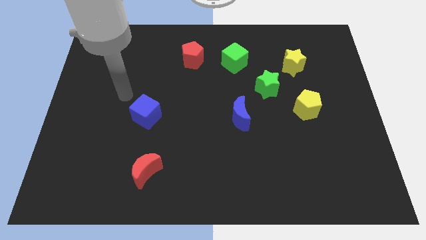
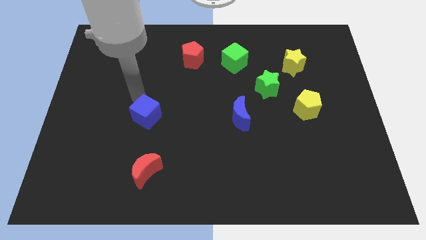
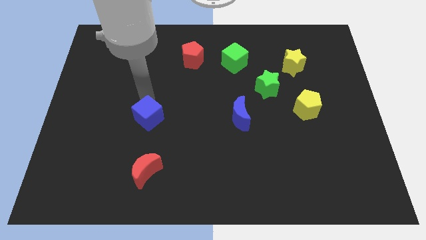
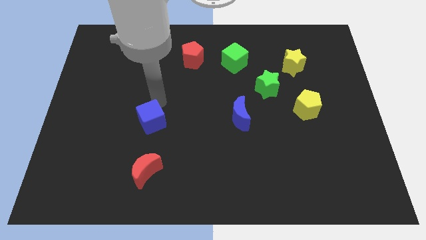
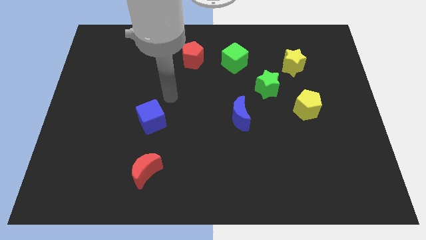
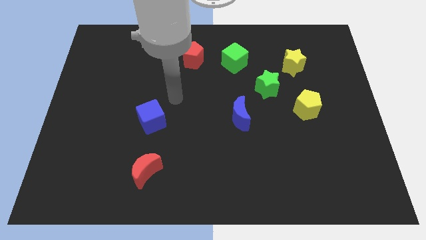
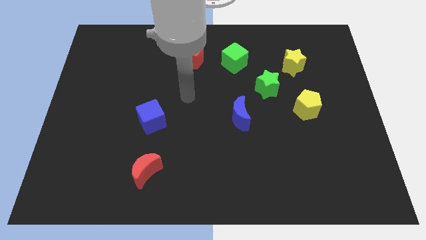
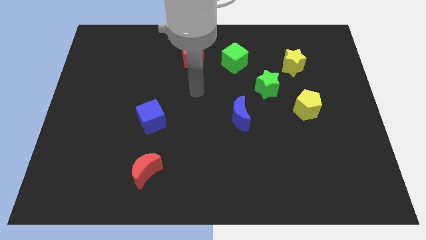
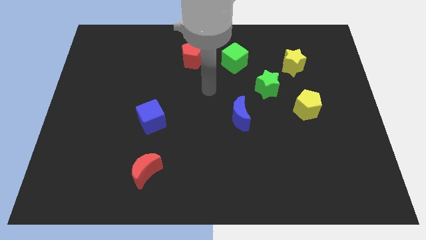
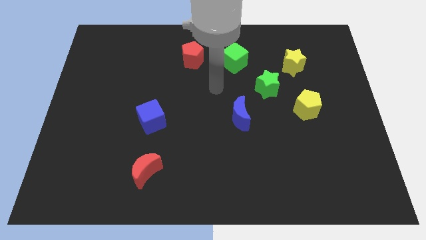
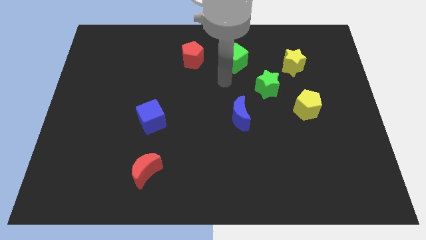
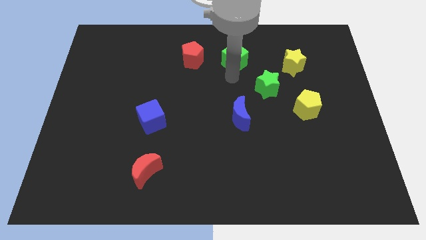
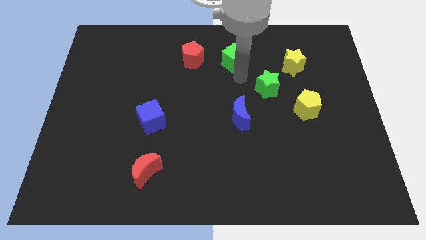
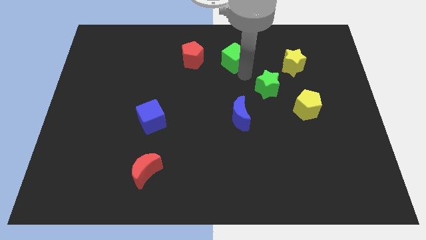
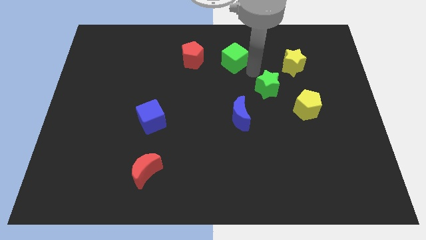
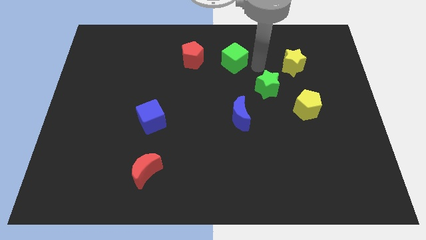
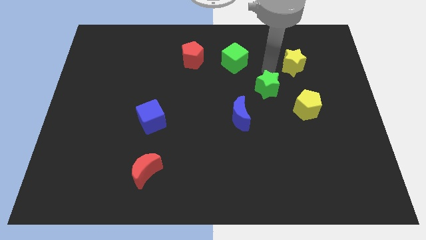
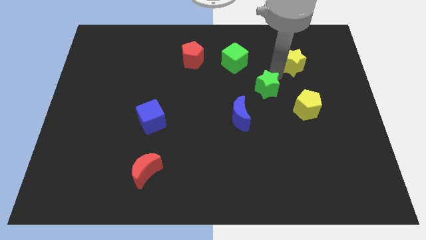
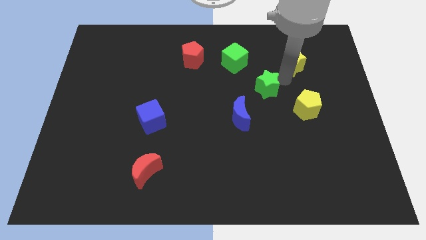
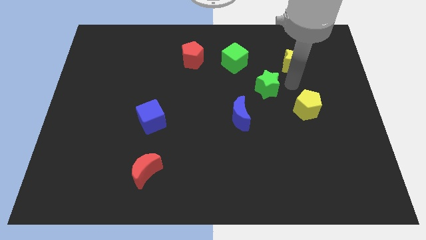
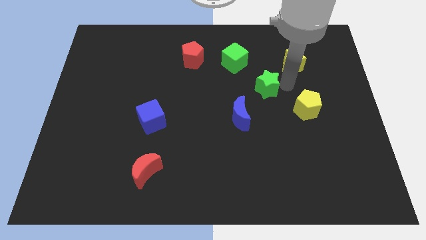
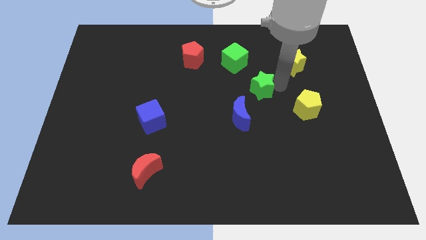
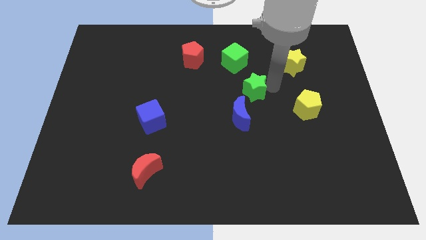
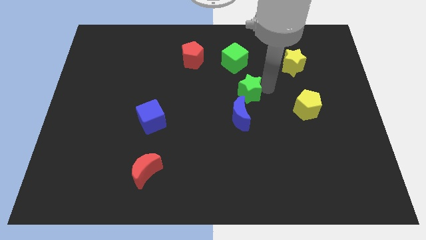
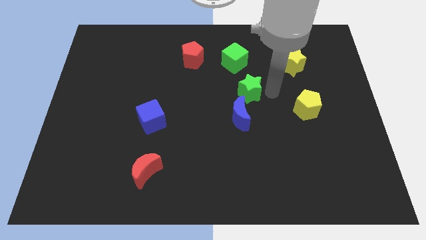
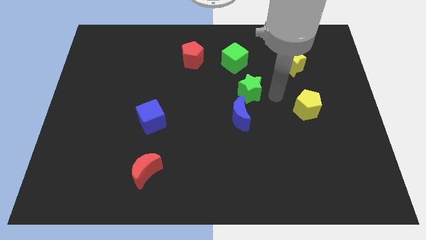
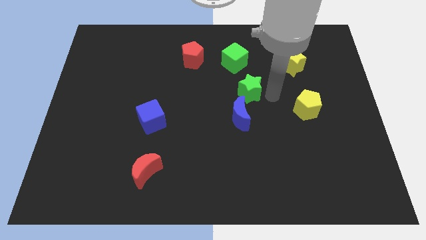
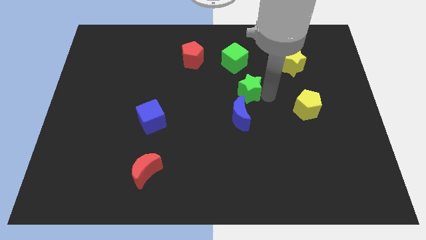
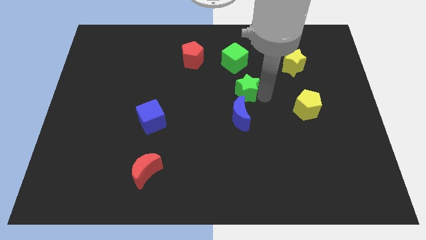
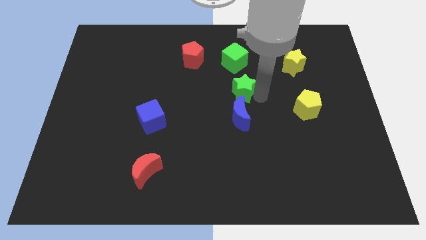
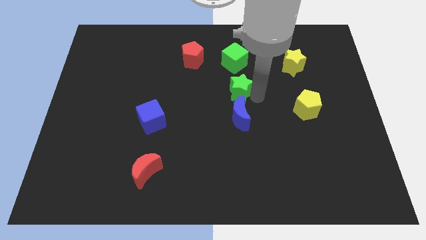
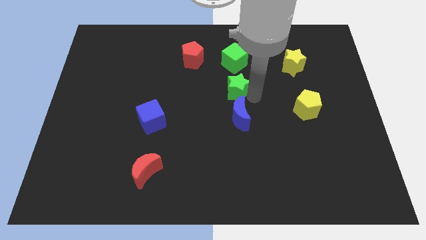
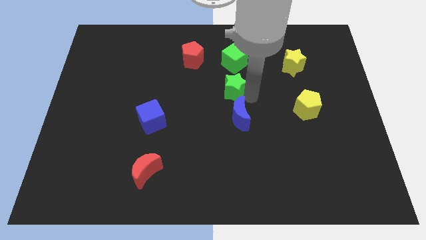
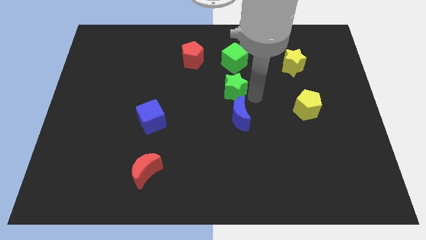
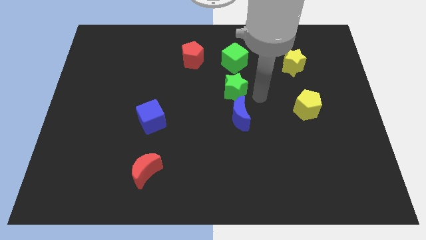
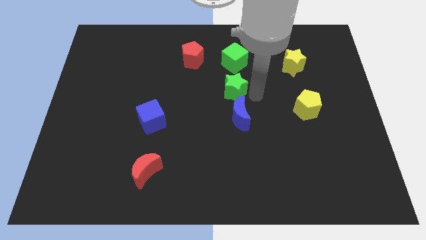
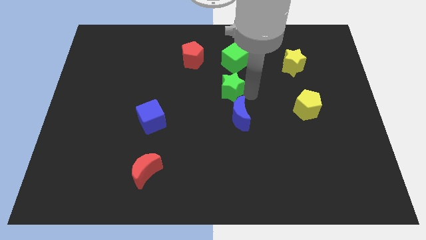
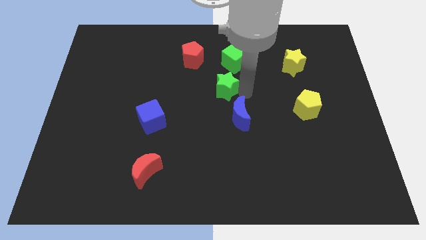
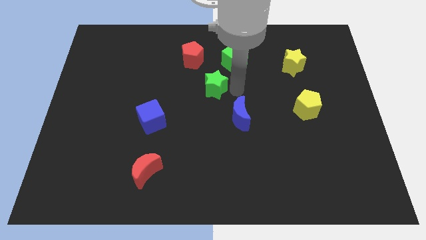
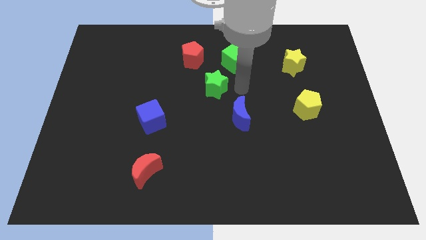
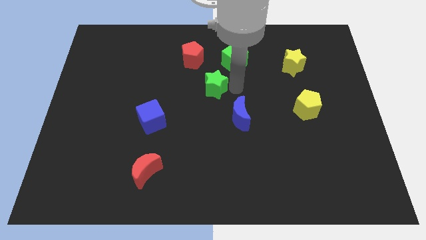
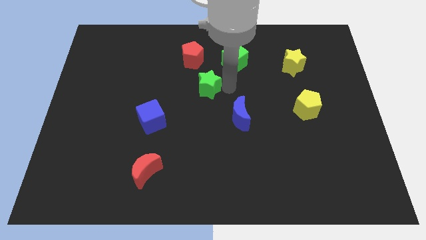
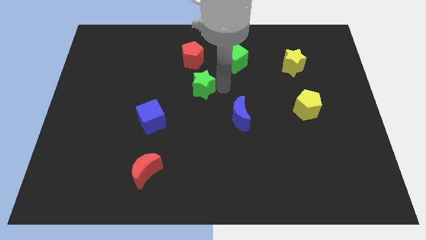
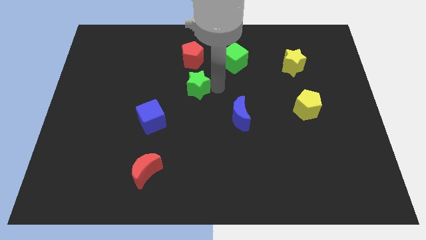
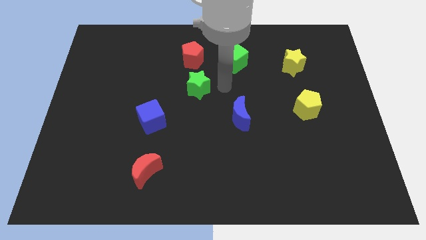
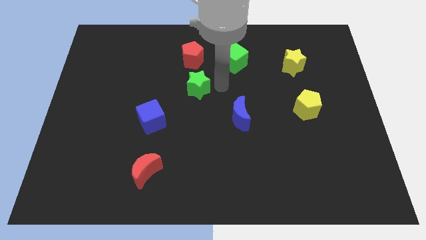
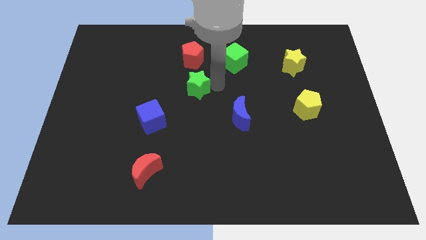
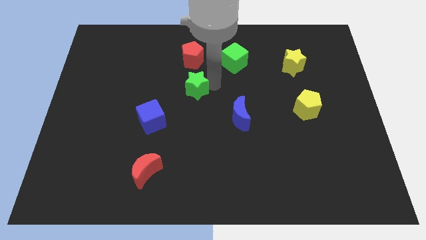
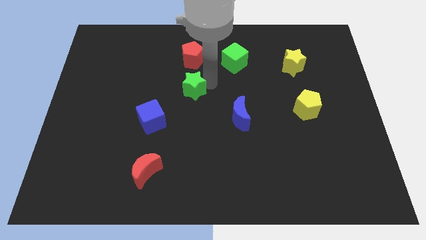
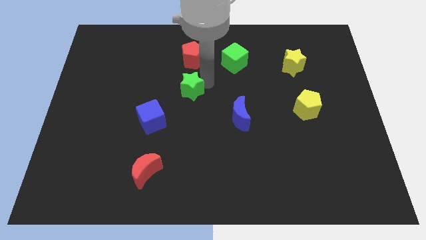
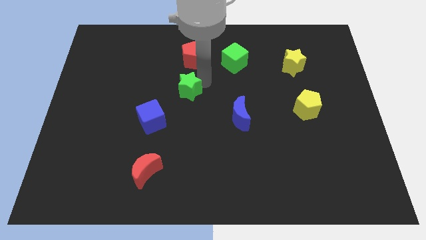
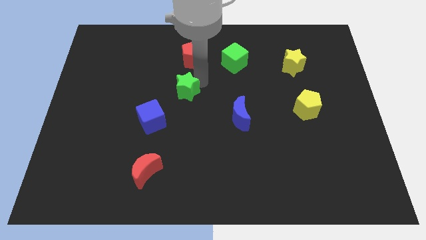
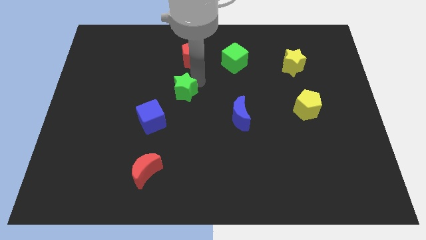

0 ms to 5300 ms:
slide the green star left

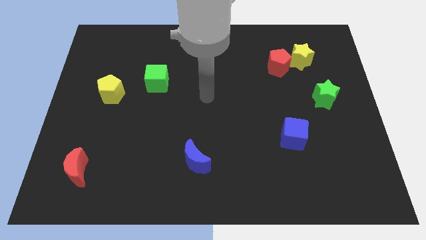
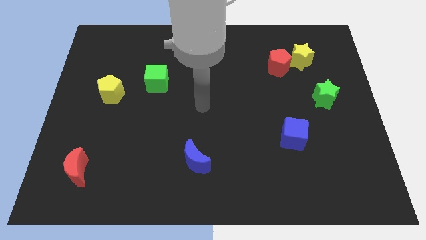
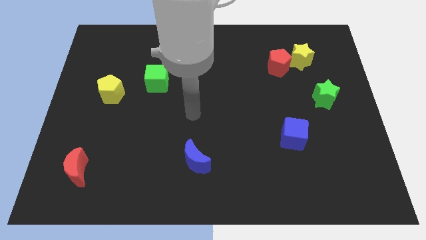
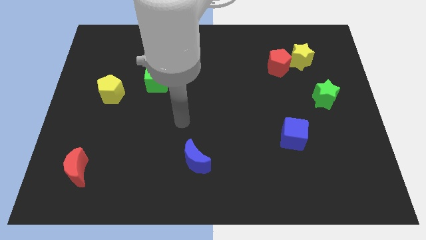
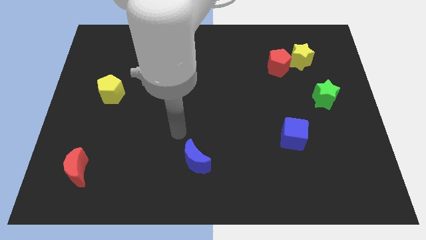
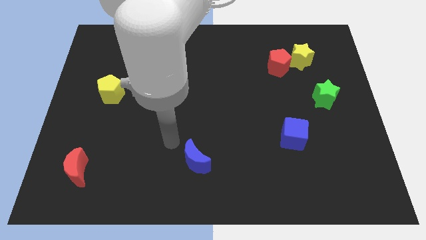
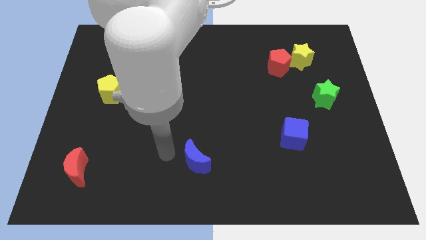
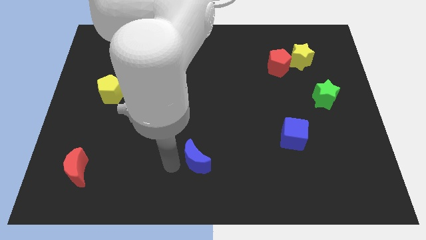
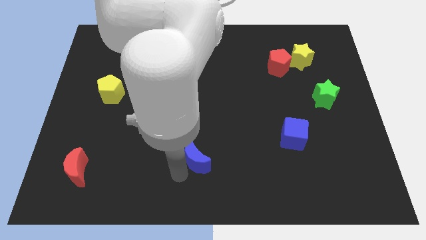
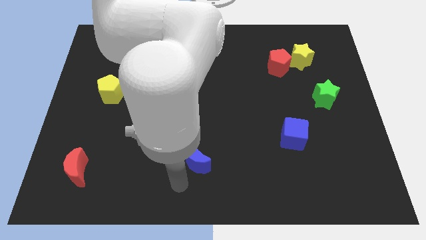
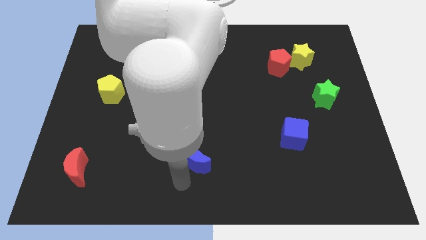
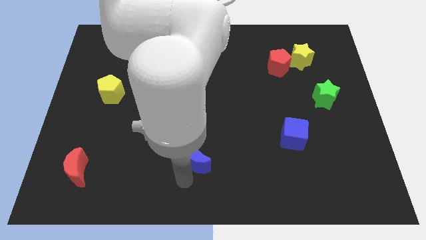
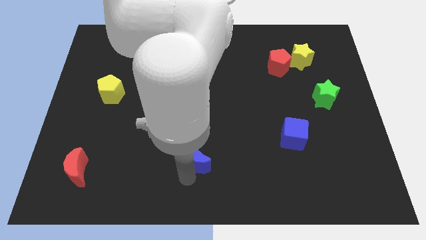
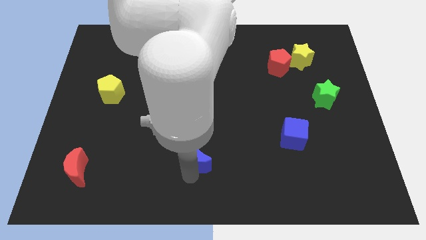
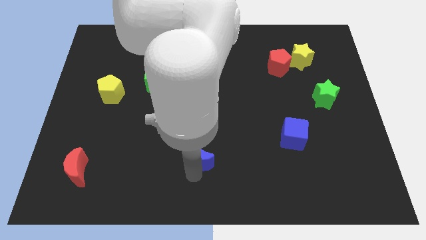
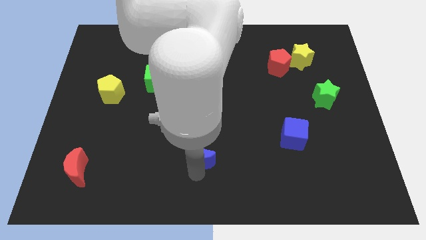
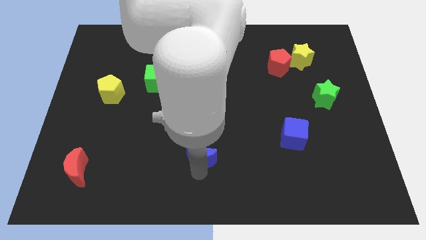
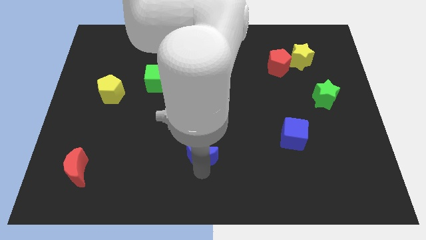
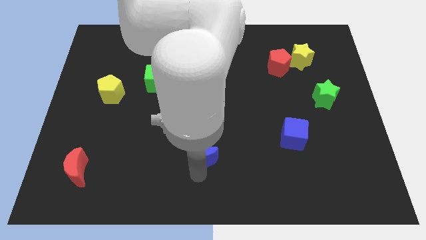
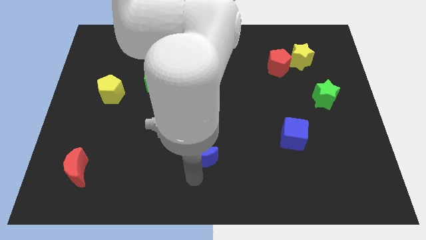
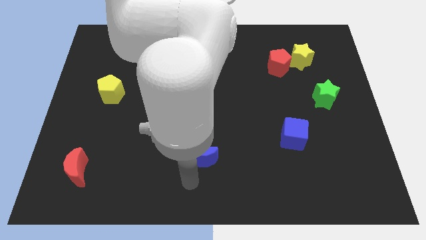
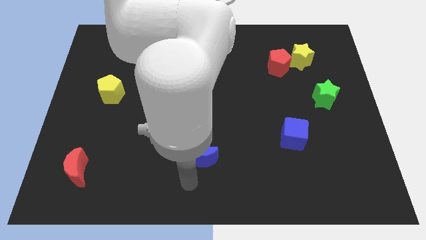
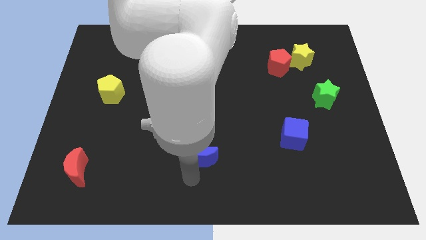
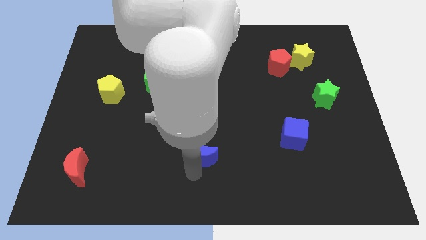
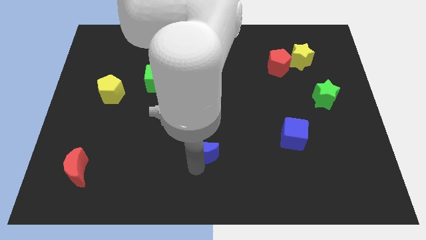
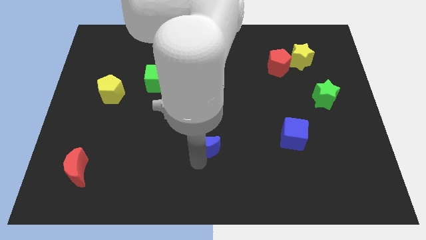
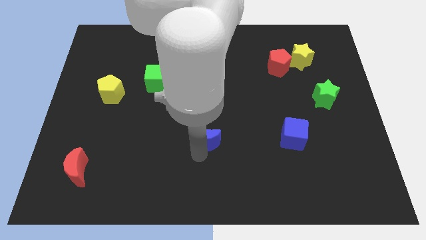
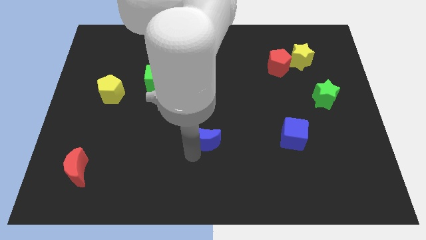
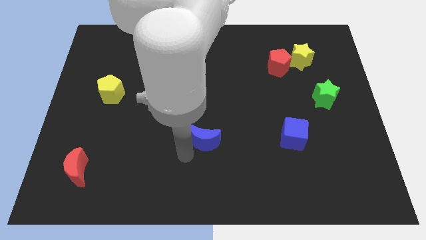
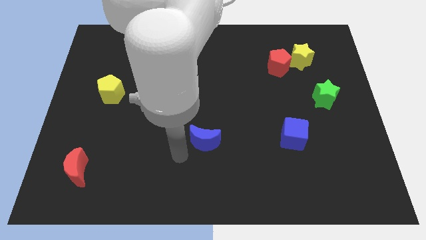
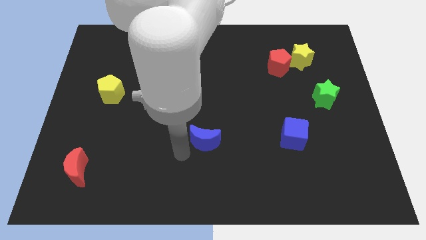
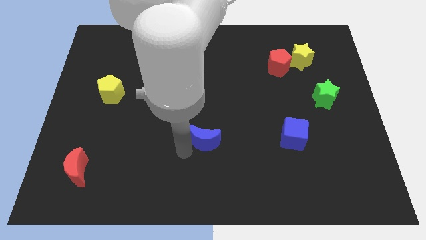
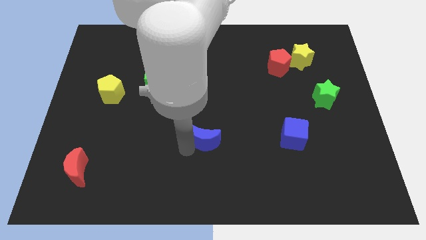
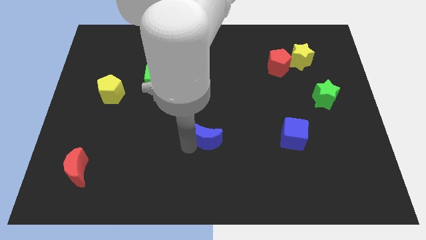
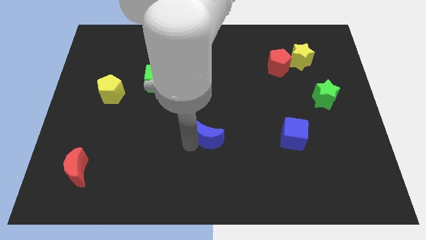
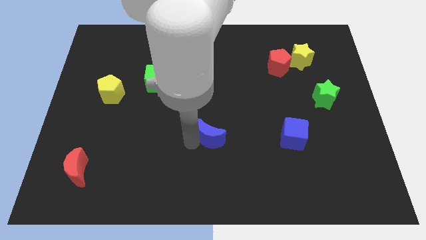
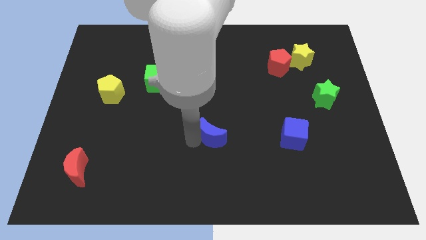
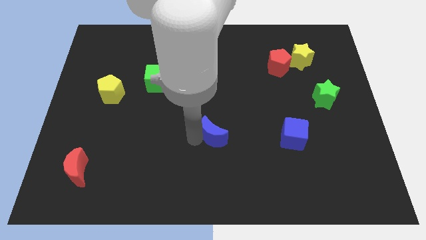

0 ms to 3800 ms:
push the blue moon slightly upwards and to the right
